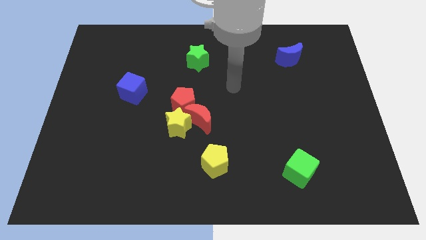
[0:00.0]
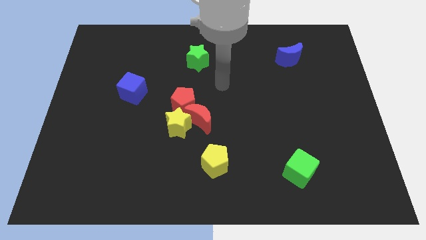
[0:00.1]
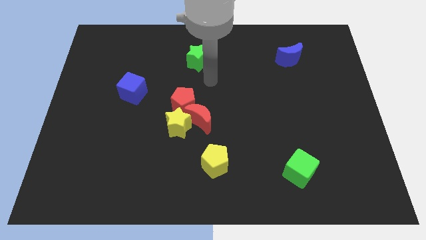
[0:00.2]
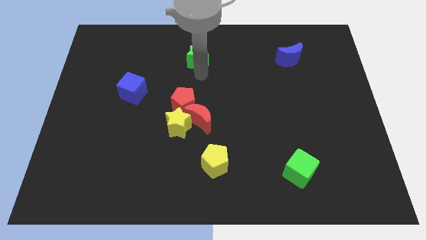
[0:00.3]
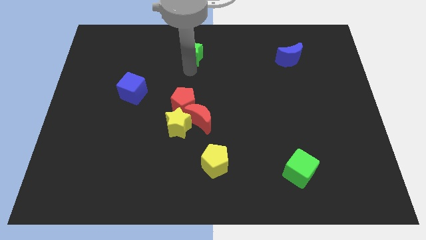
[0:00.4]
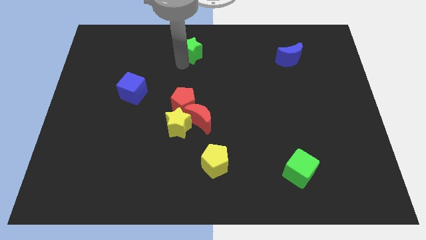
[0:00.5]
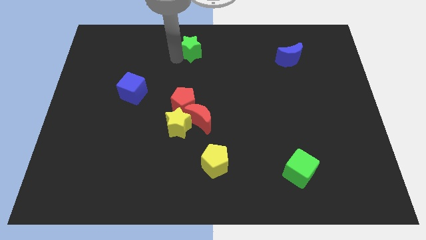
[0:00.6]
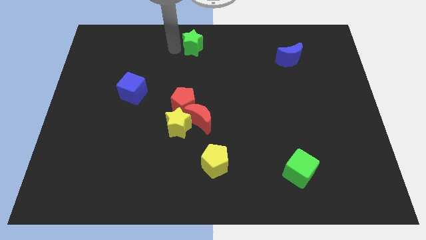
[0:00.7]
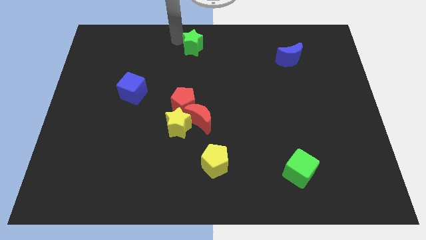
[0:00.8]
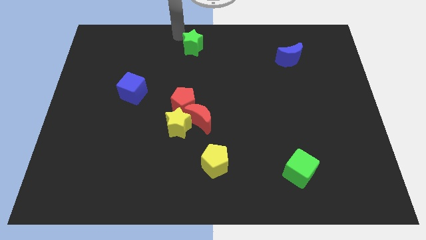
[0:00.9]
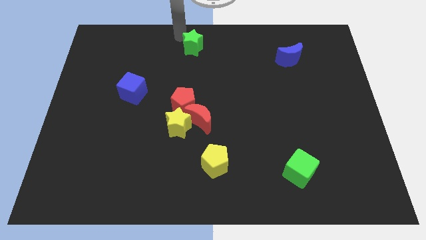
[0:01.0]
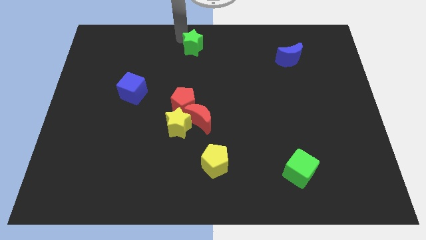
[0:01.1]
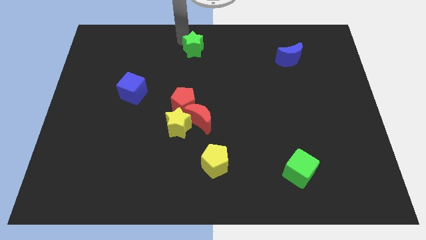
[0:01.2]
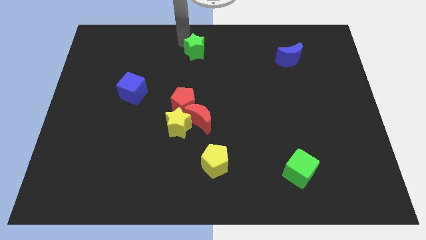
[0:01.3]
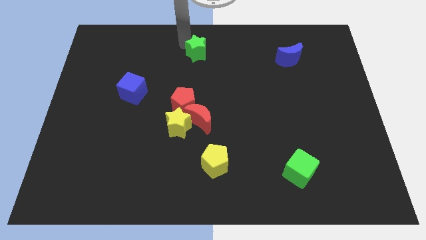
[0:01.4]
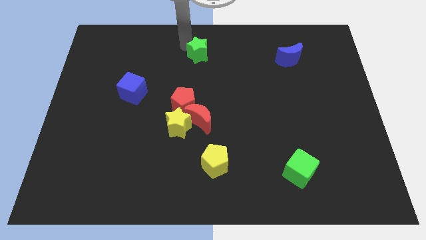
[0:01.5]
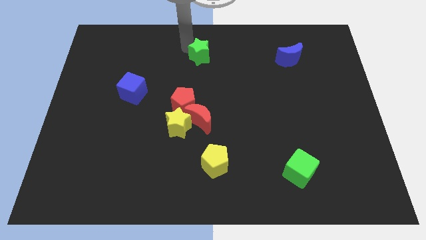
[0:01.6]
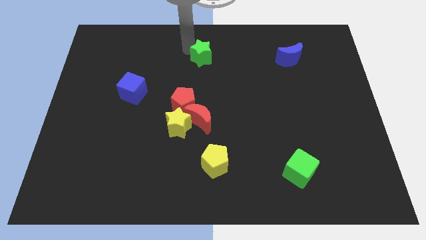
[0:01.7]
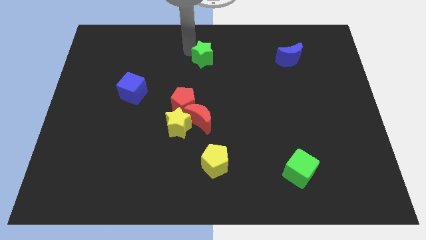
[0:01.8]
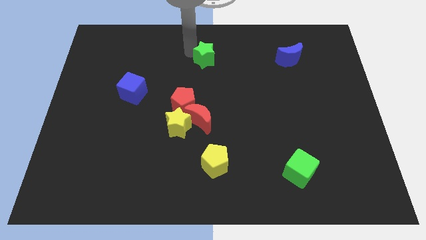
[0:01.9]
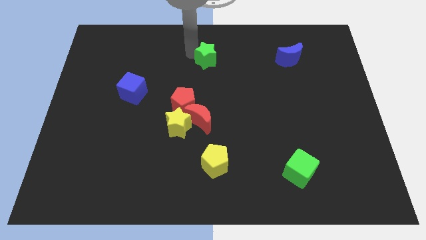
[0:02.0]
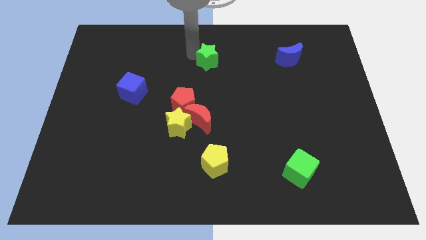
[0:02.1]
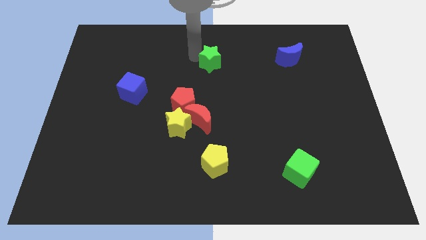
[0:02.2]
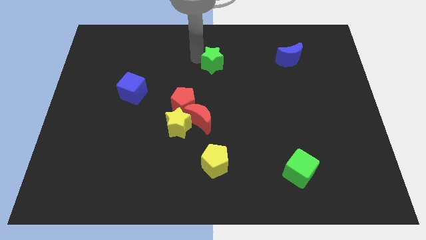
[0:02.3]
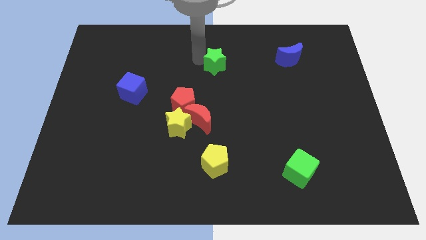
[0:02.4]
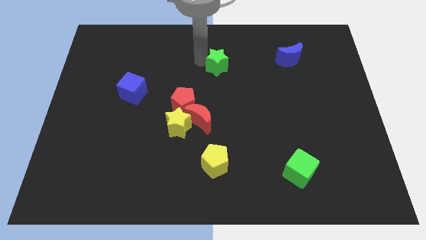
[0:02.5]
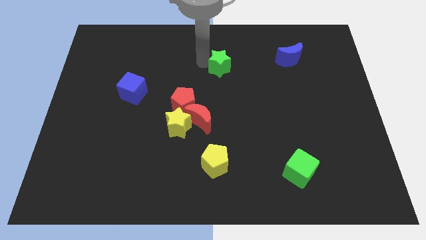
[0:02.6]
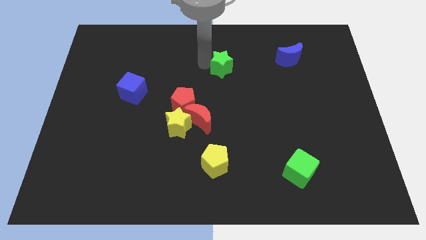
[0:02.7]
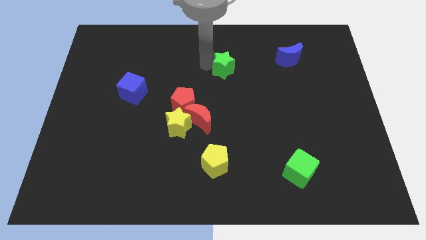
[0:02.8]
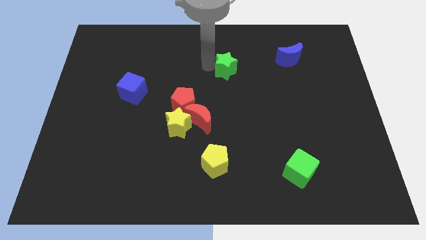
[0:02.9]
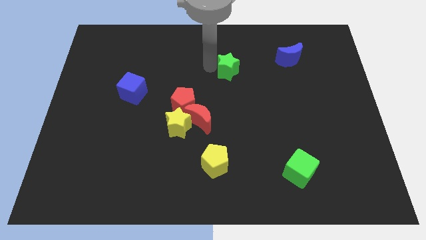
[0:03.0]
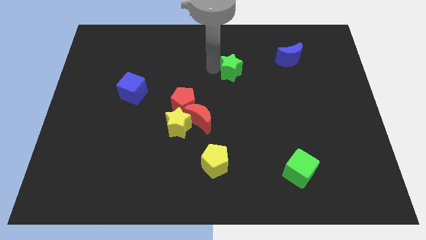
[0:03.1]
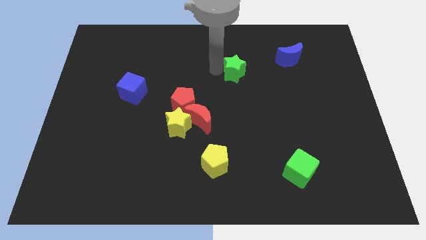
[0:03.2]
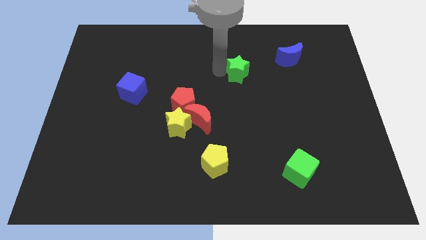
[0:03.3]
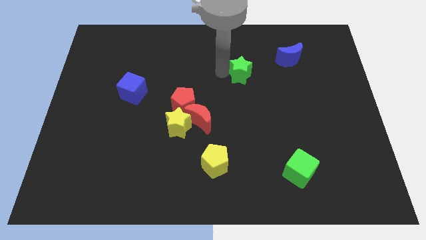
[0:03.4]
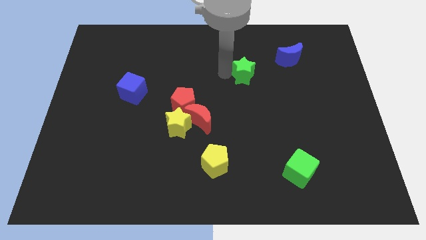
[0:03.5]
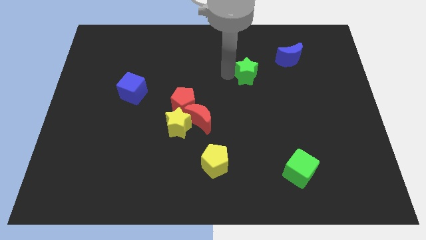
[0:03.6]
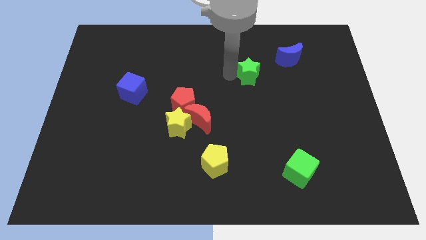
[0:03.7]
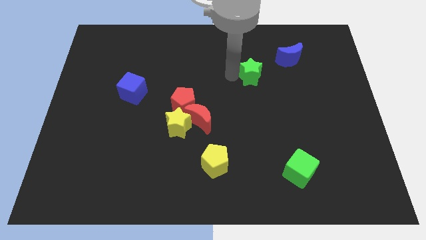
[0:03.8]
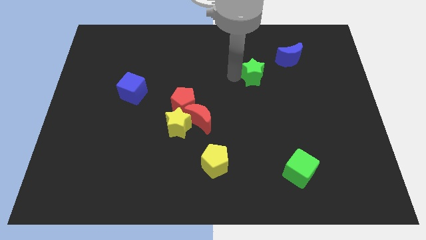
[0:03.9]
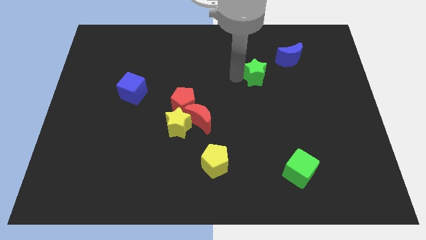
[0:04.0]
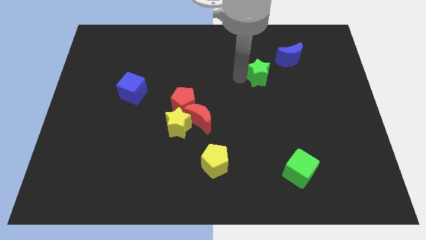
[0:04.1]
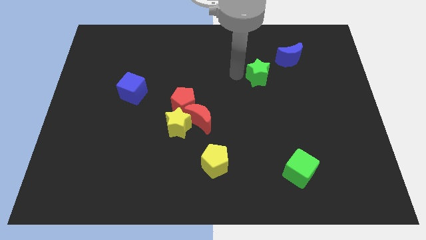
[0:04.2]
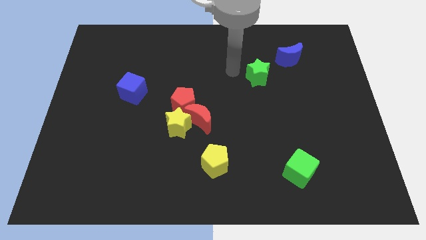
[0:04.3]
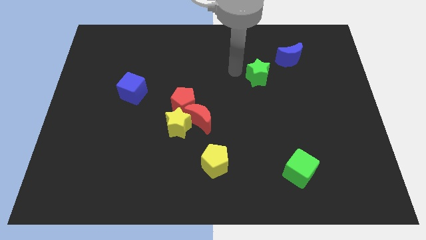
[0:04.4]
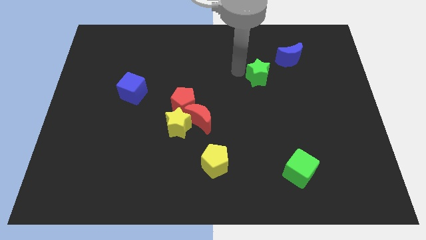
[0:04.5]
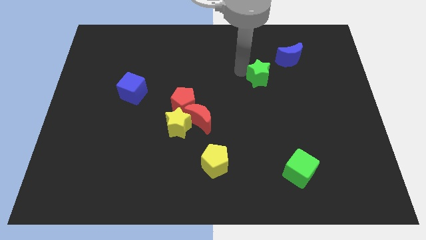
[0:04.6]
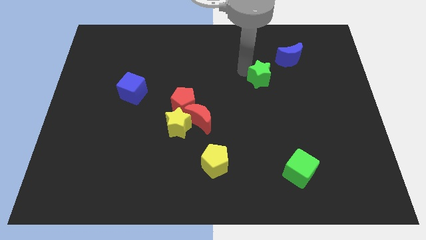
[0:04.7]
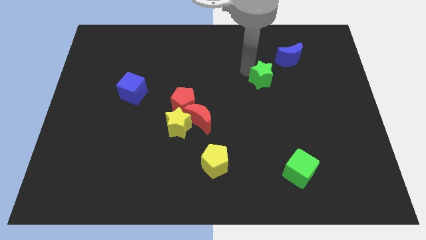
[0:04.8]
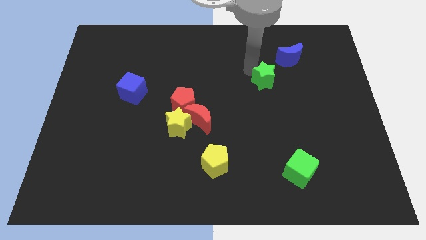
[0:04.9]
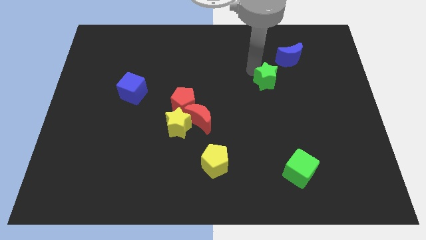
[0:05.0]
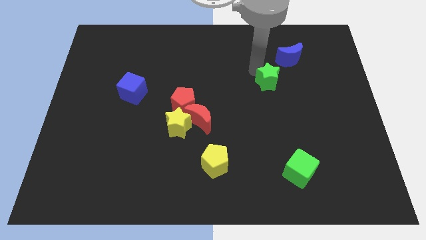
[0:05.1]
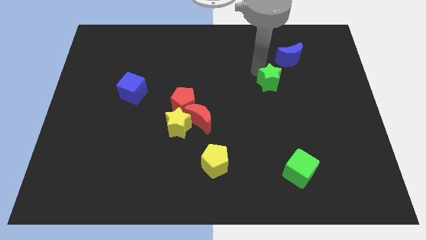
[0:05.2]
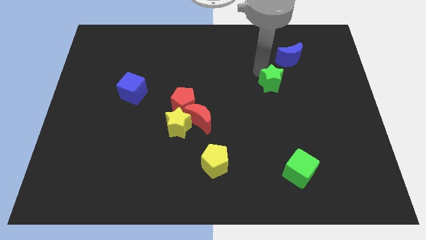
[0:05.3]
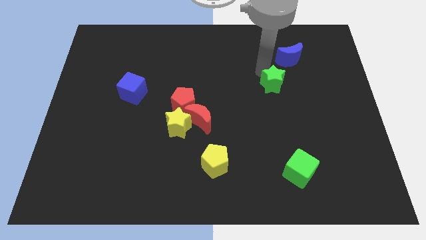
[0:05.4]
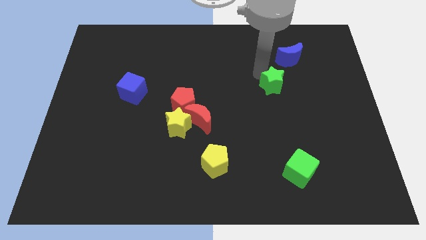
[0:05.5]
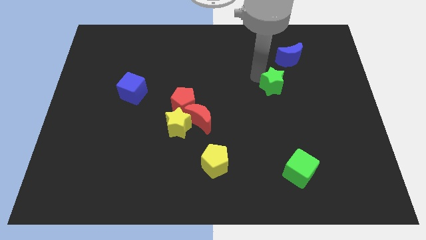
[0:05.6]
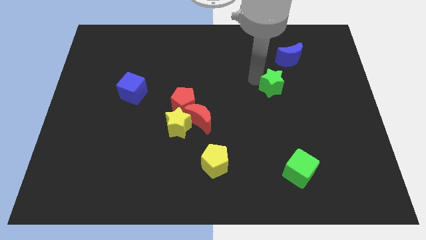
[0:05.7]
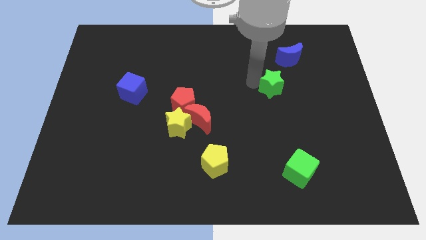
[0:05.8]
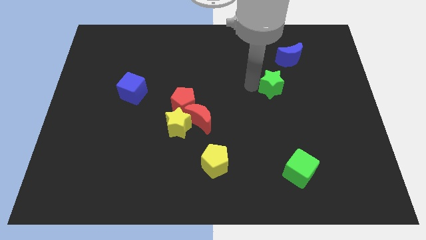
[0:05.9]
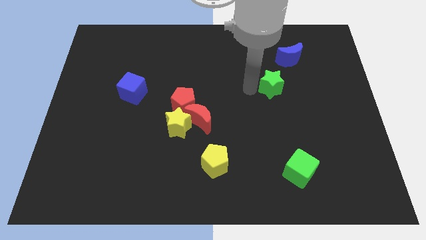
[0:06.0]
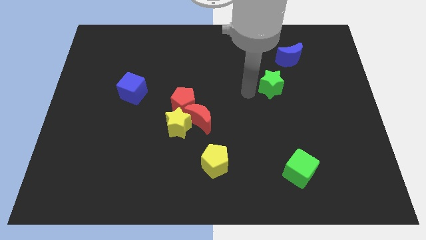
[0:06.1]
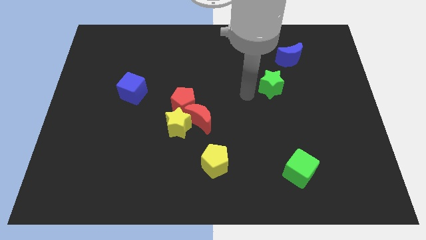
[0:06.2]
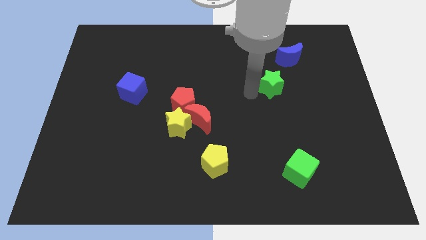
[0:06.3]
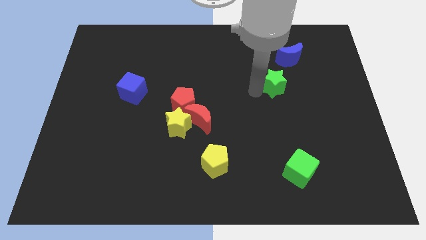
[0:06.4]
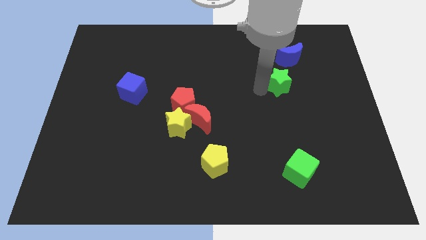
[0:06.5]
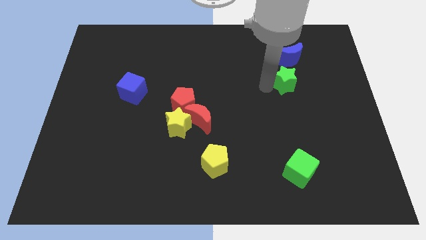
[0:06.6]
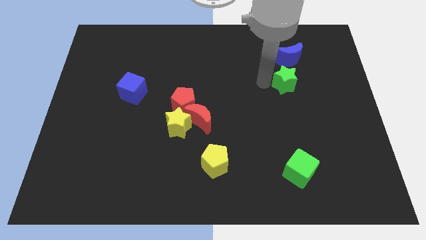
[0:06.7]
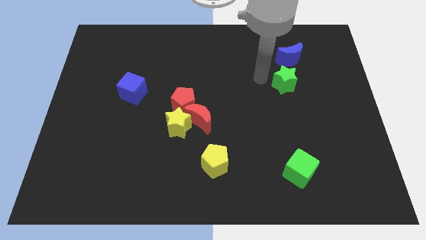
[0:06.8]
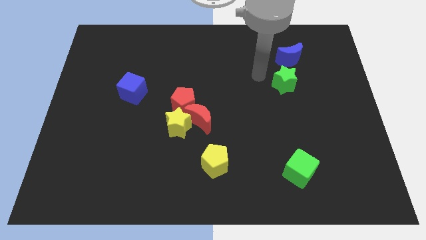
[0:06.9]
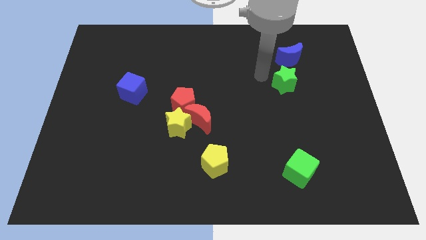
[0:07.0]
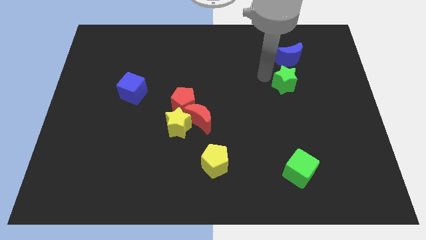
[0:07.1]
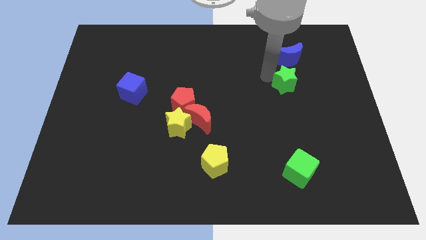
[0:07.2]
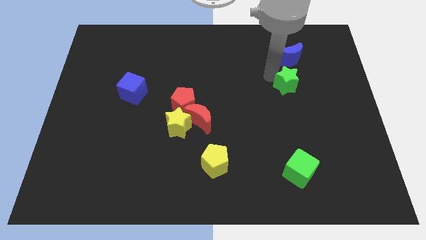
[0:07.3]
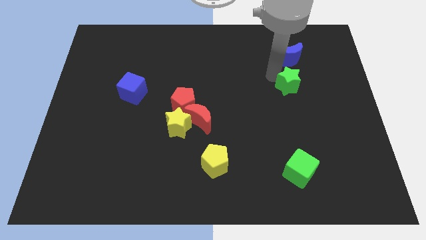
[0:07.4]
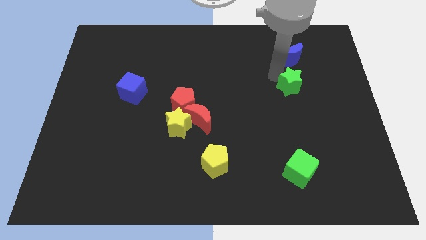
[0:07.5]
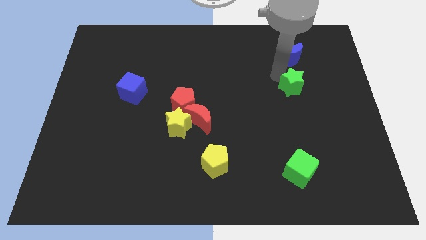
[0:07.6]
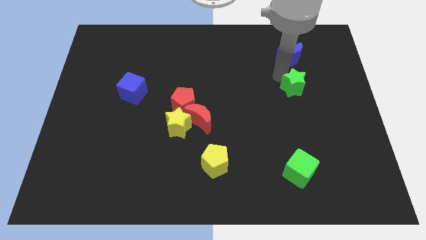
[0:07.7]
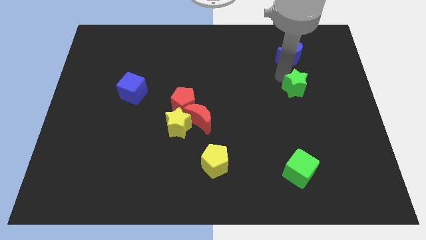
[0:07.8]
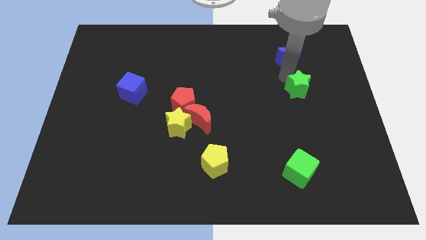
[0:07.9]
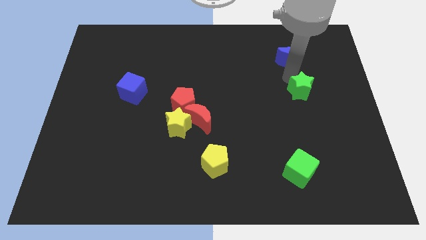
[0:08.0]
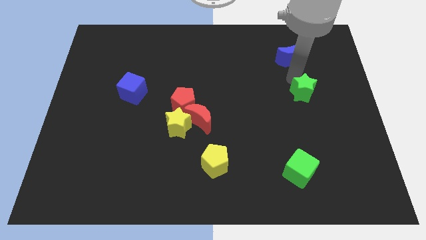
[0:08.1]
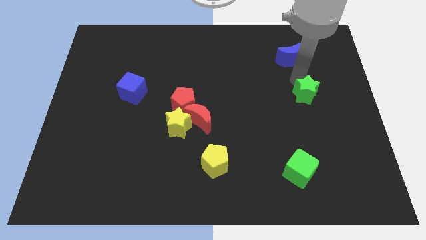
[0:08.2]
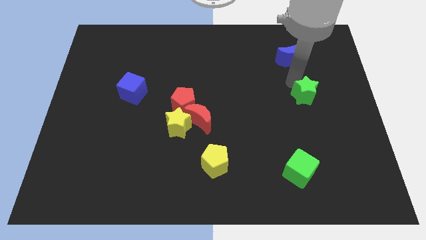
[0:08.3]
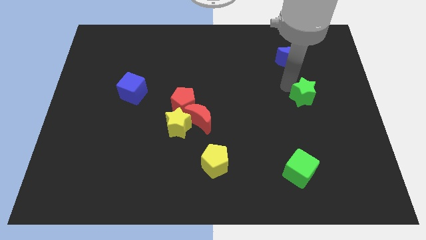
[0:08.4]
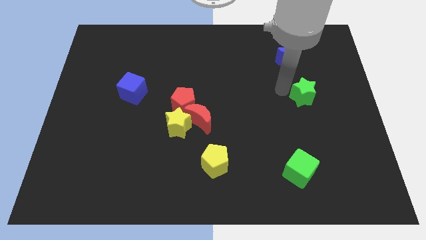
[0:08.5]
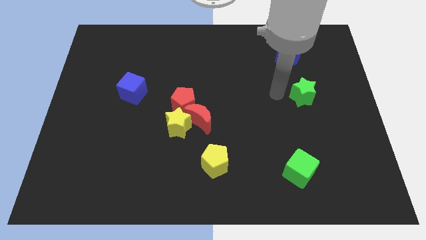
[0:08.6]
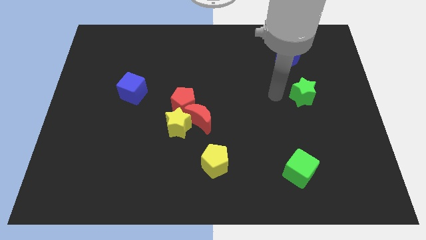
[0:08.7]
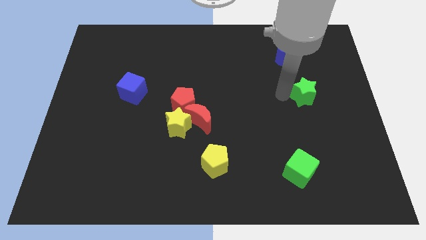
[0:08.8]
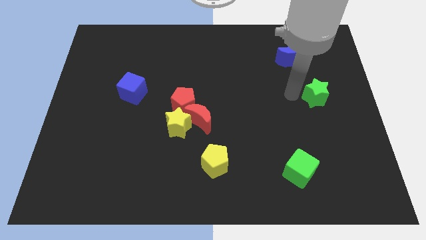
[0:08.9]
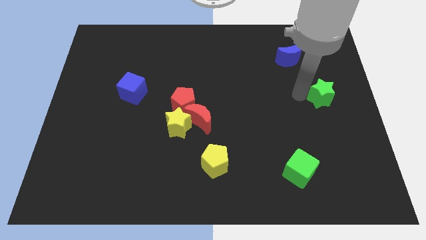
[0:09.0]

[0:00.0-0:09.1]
push the green star to the right side of the board
